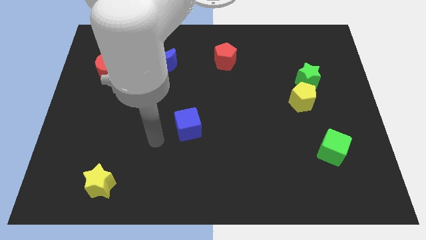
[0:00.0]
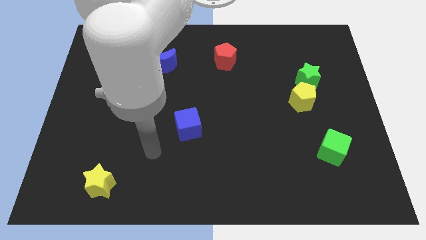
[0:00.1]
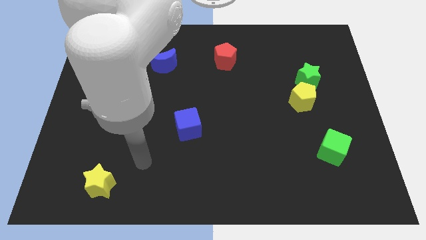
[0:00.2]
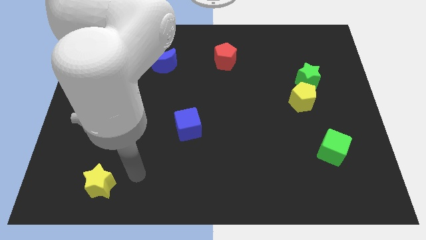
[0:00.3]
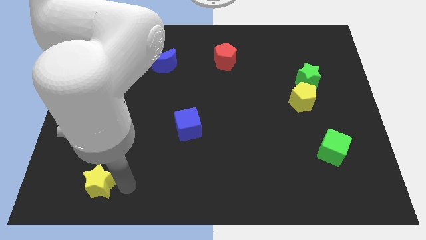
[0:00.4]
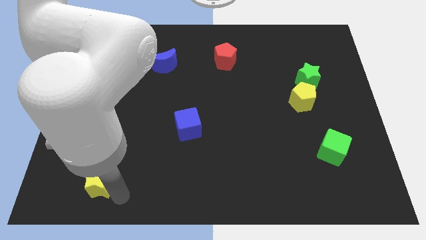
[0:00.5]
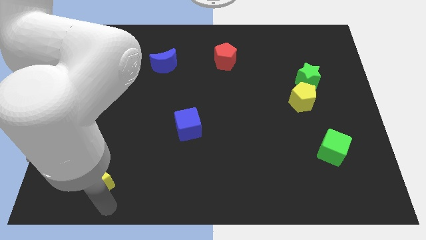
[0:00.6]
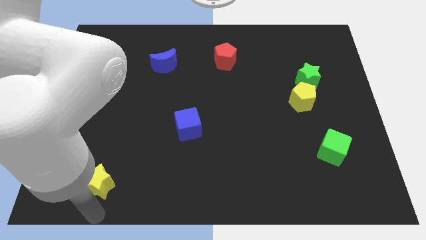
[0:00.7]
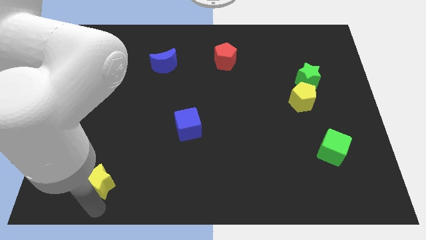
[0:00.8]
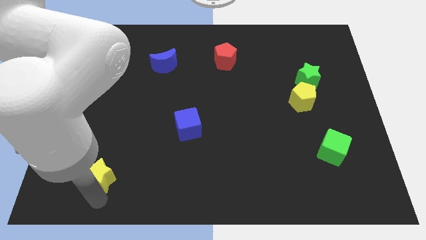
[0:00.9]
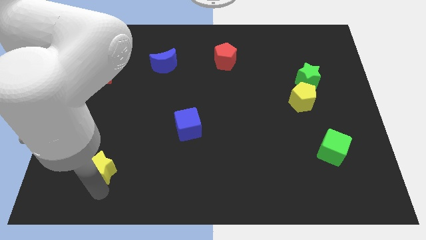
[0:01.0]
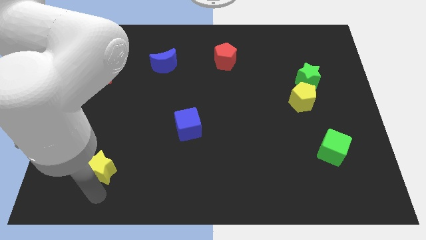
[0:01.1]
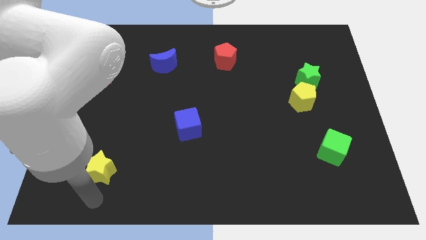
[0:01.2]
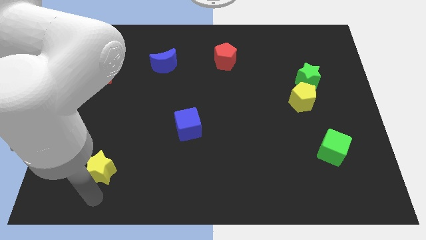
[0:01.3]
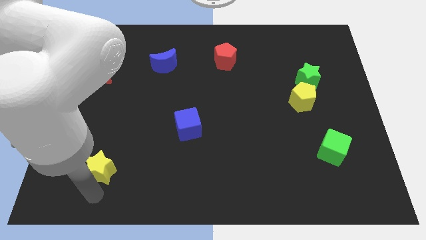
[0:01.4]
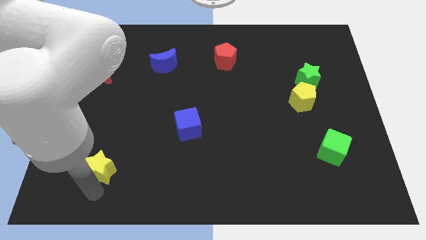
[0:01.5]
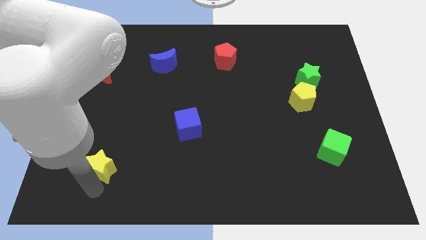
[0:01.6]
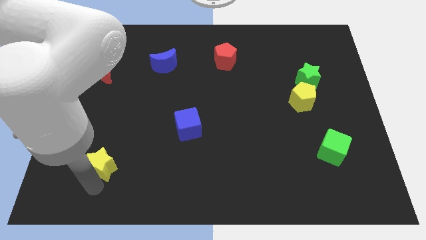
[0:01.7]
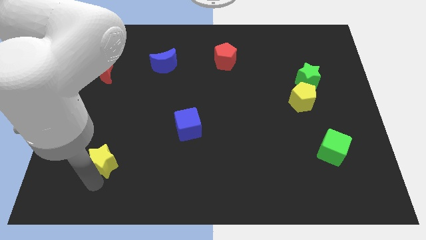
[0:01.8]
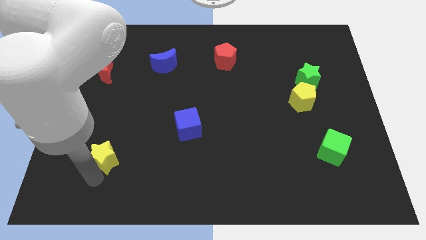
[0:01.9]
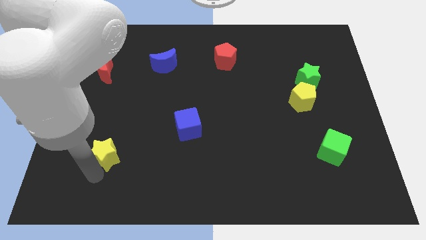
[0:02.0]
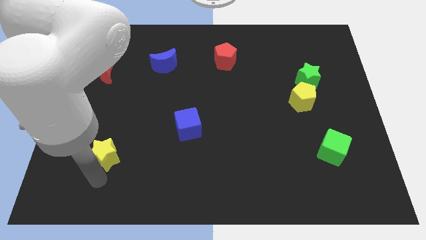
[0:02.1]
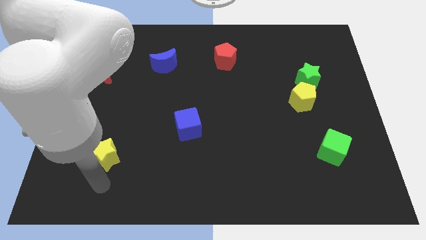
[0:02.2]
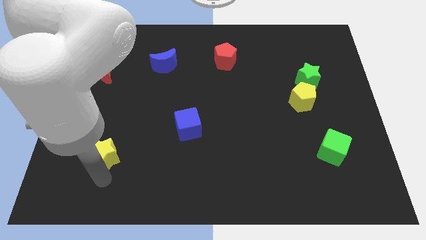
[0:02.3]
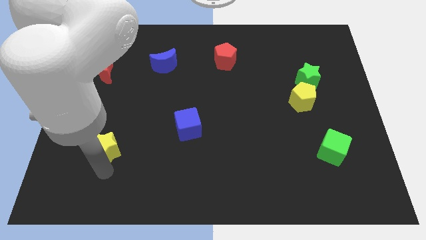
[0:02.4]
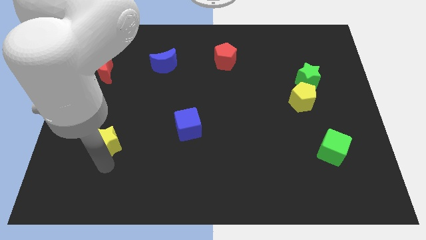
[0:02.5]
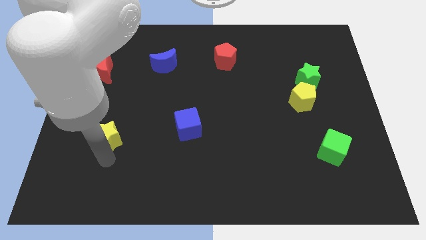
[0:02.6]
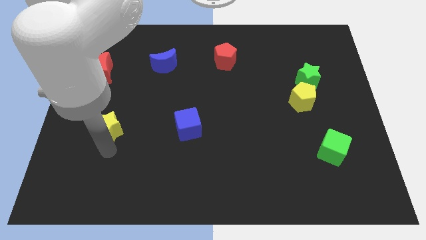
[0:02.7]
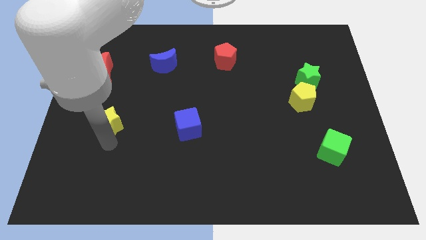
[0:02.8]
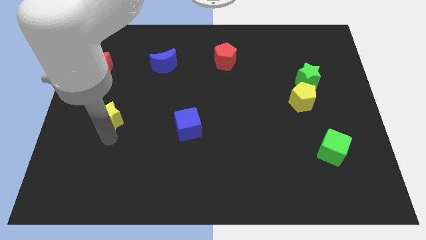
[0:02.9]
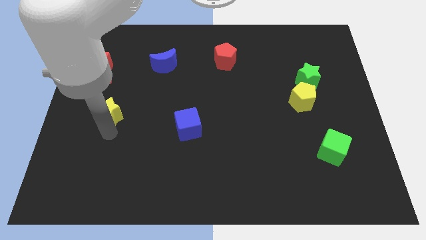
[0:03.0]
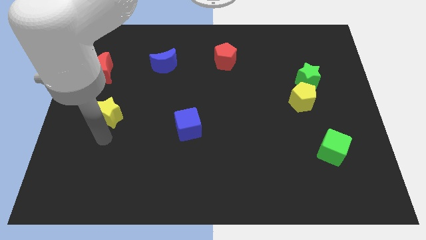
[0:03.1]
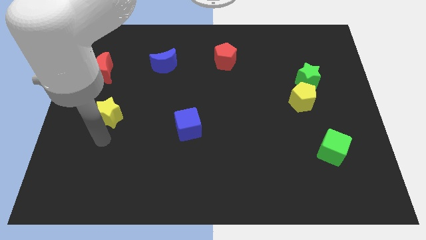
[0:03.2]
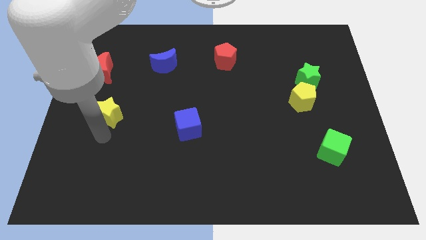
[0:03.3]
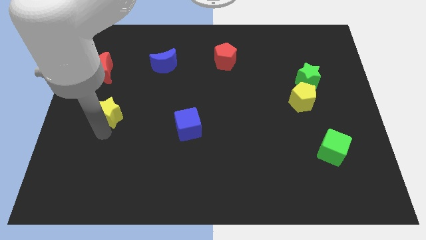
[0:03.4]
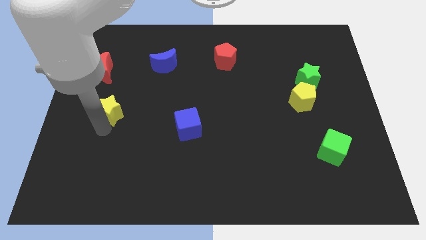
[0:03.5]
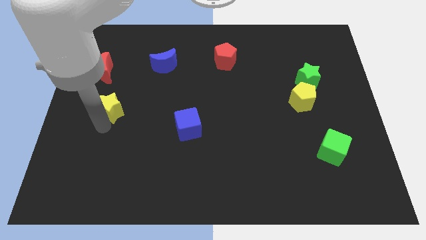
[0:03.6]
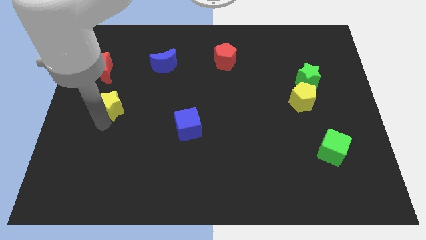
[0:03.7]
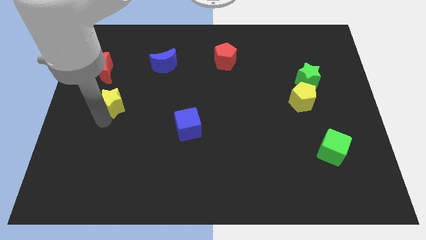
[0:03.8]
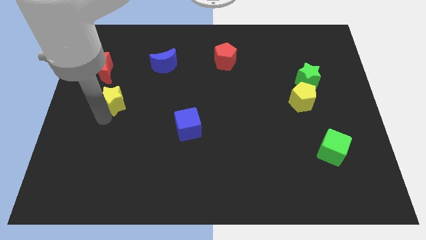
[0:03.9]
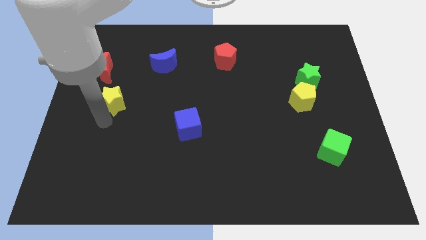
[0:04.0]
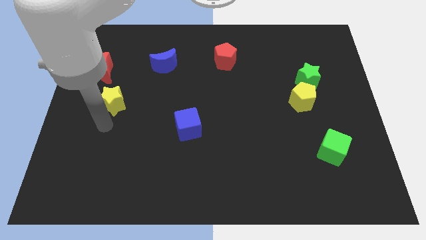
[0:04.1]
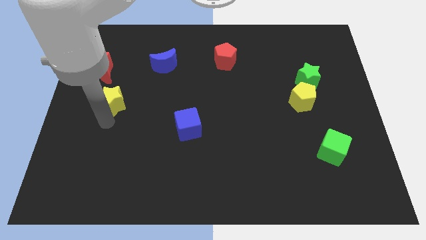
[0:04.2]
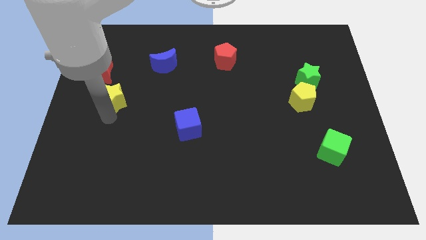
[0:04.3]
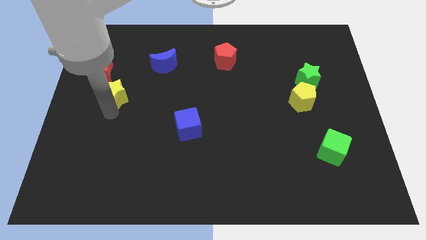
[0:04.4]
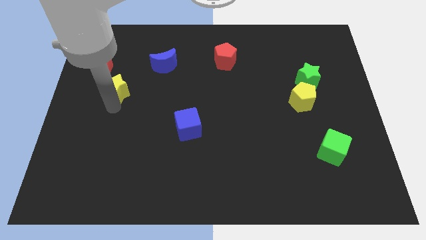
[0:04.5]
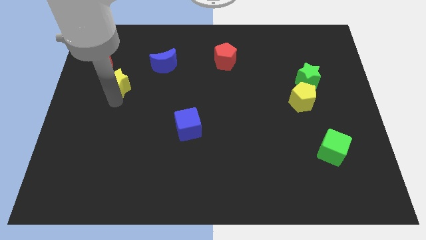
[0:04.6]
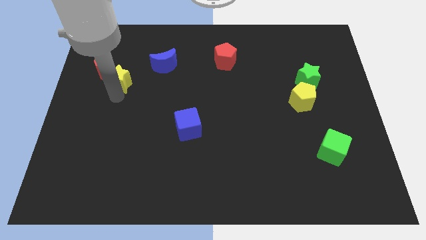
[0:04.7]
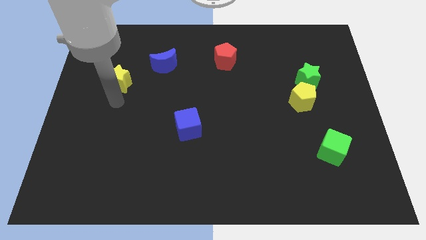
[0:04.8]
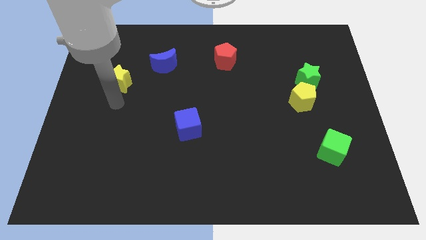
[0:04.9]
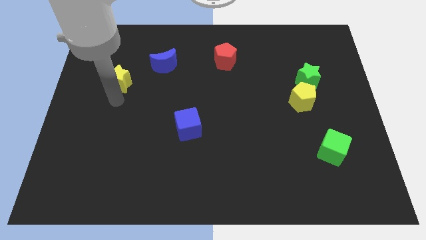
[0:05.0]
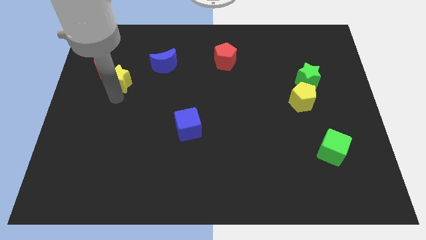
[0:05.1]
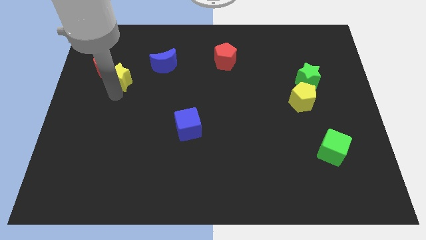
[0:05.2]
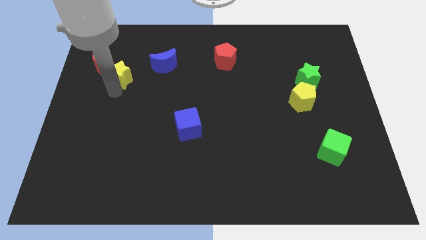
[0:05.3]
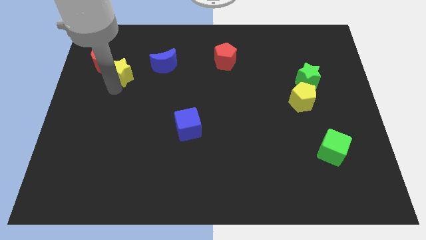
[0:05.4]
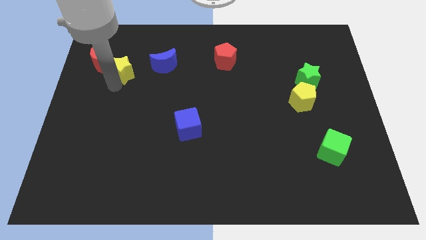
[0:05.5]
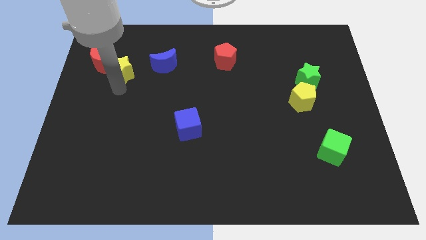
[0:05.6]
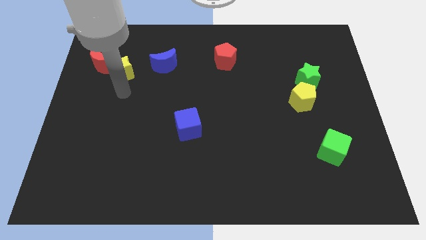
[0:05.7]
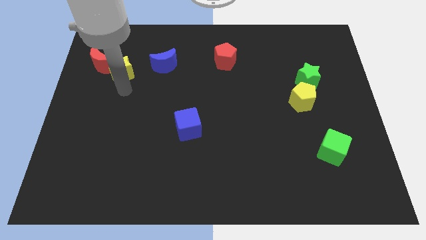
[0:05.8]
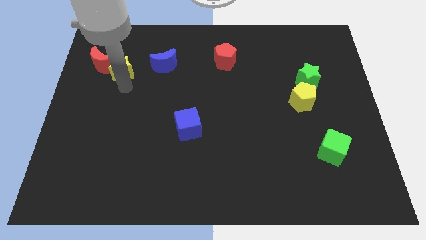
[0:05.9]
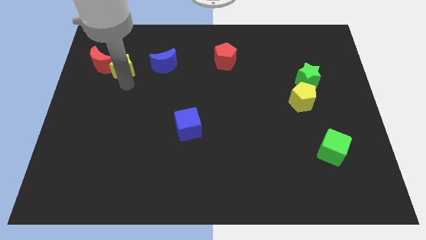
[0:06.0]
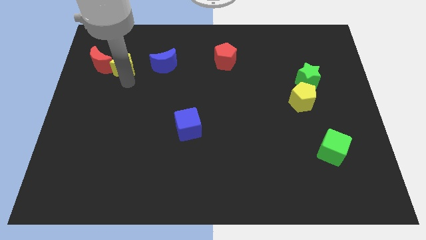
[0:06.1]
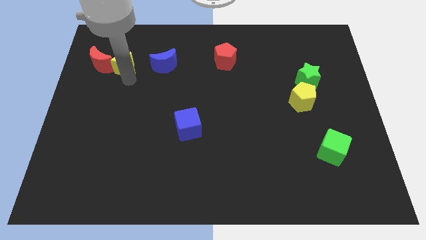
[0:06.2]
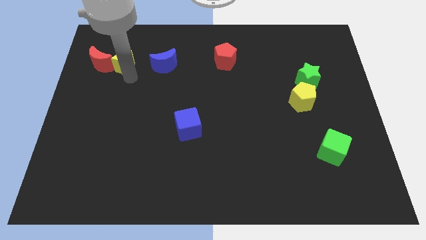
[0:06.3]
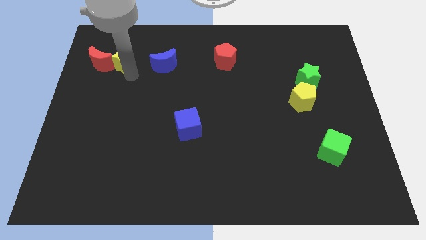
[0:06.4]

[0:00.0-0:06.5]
push the yellow star to the top right side of the red moon

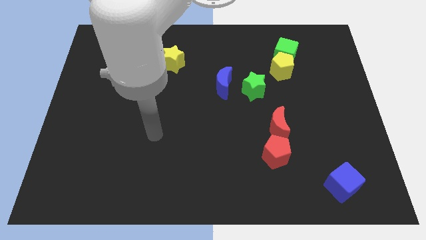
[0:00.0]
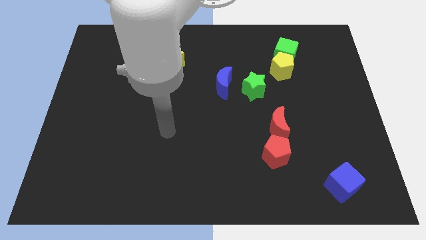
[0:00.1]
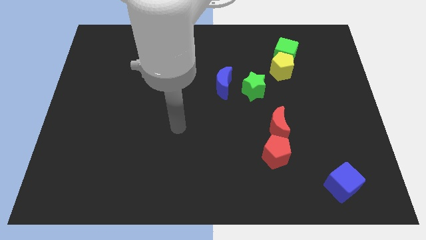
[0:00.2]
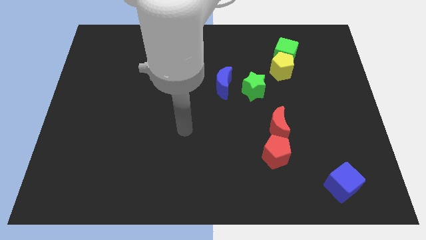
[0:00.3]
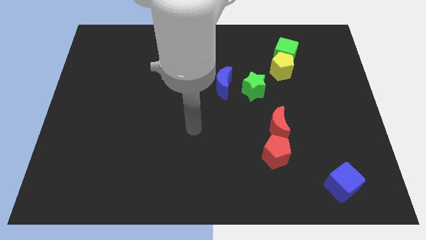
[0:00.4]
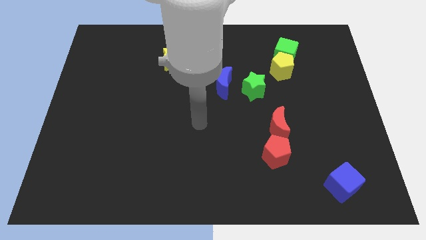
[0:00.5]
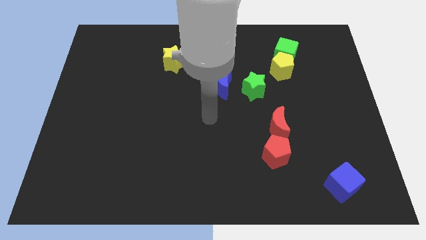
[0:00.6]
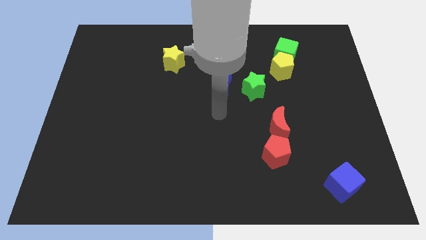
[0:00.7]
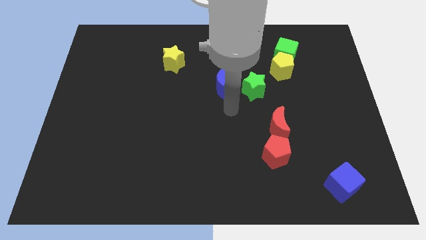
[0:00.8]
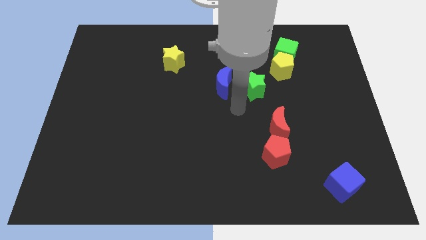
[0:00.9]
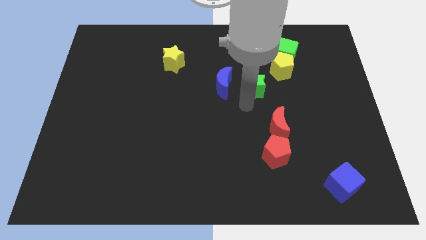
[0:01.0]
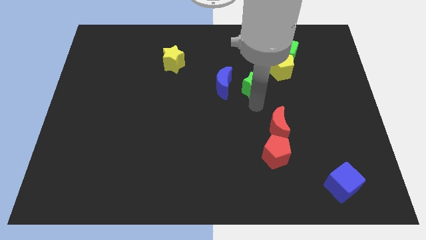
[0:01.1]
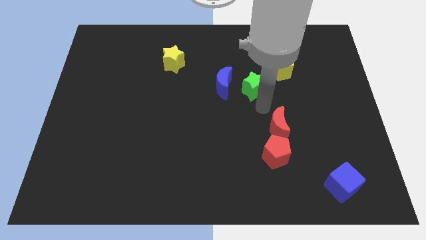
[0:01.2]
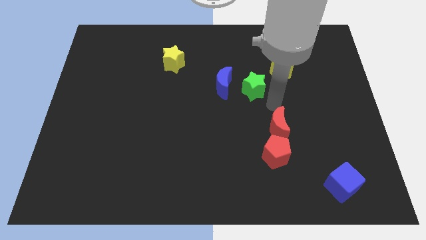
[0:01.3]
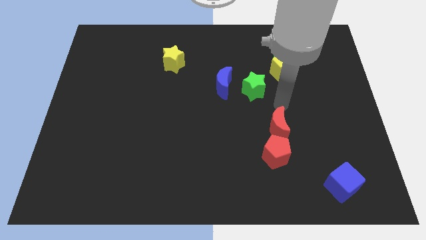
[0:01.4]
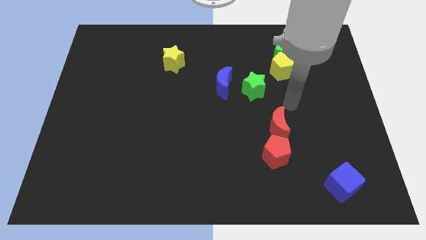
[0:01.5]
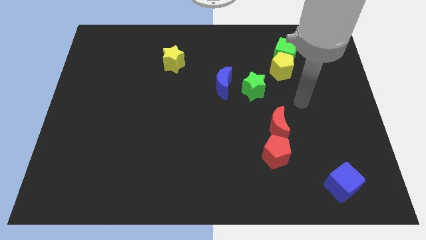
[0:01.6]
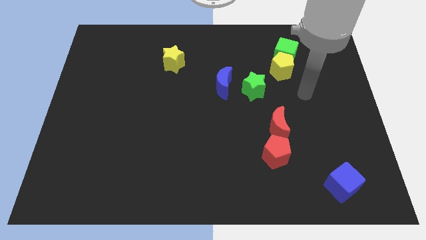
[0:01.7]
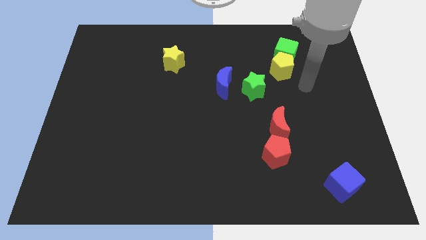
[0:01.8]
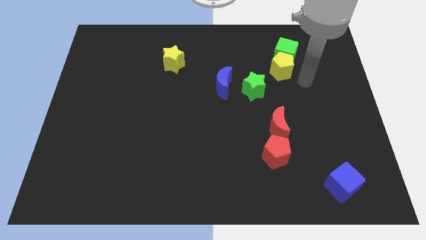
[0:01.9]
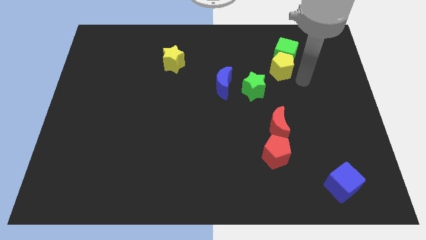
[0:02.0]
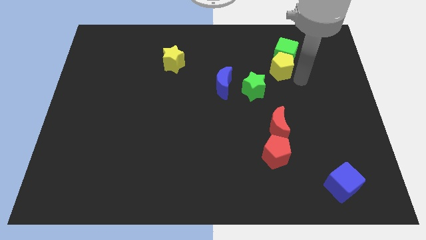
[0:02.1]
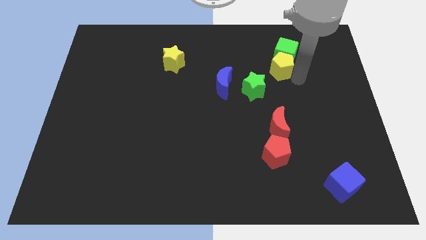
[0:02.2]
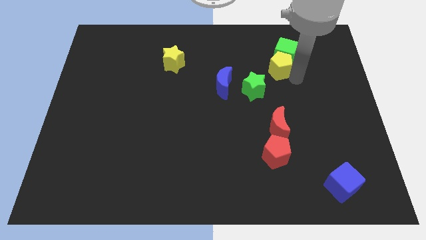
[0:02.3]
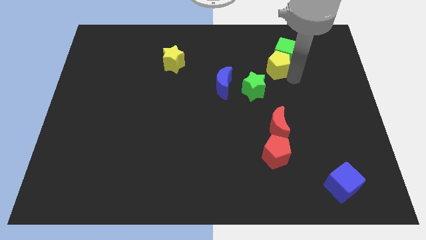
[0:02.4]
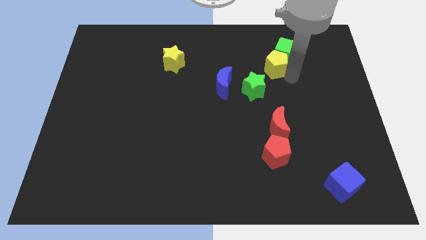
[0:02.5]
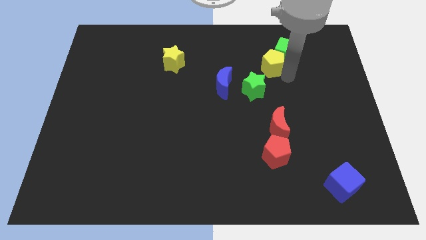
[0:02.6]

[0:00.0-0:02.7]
put the yellow pentagon just left of the green cube
